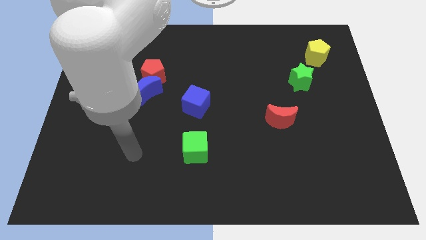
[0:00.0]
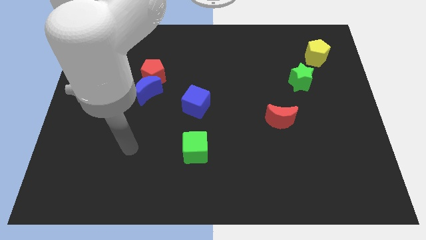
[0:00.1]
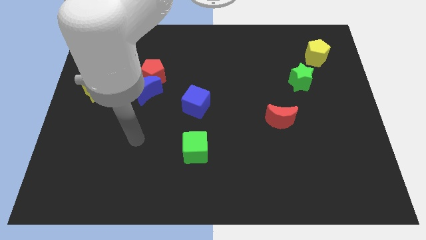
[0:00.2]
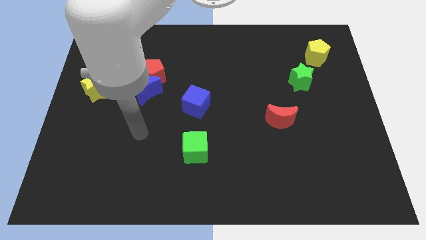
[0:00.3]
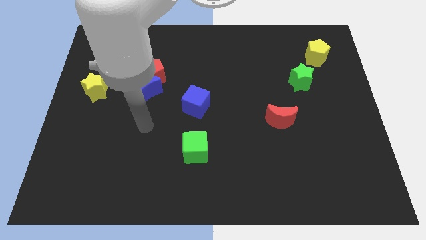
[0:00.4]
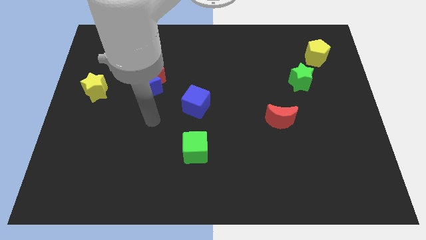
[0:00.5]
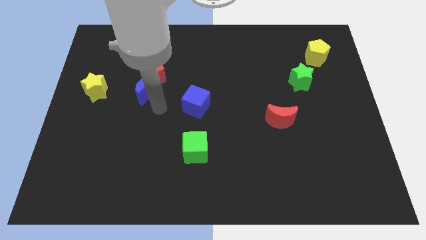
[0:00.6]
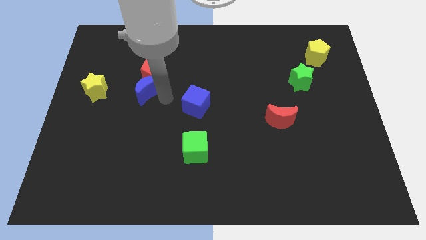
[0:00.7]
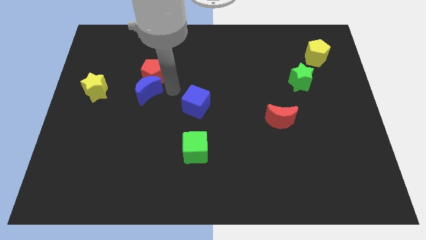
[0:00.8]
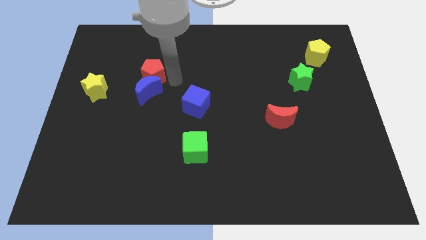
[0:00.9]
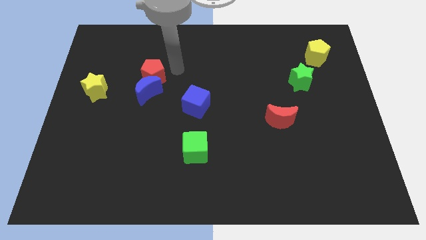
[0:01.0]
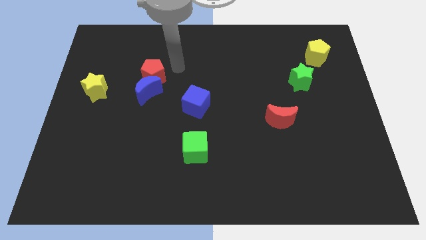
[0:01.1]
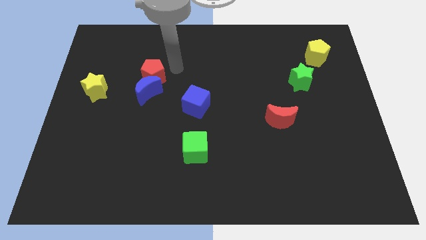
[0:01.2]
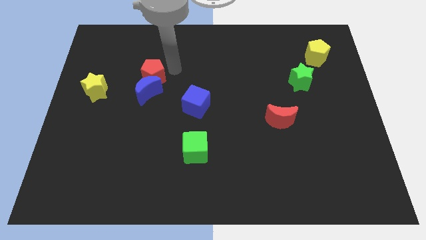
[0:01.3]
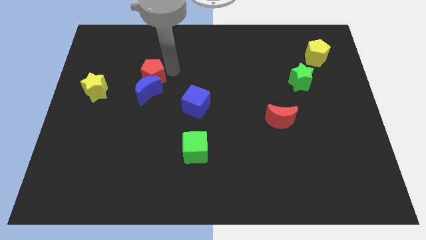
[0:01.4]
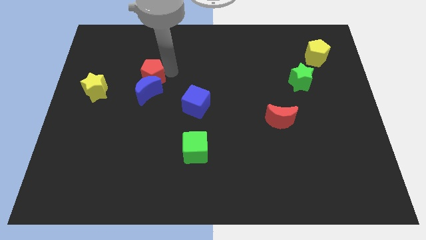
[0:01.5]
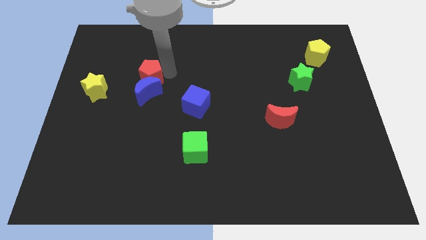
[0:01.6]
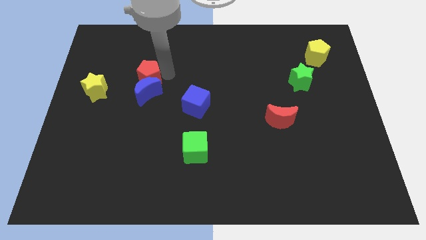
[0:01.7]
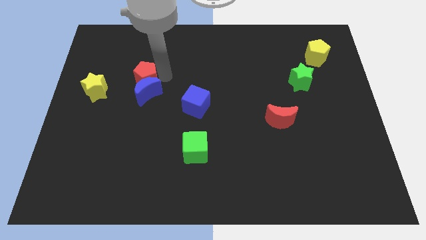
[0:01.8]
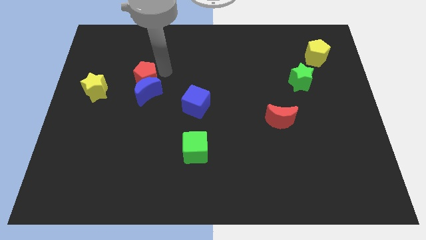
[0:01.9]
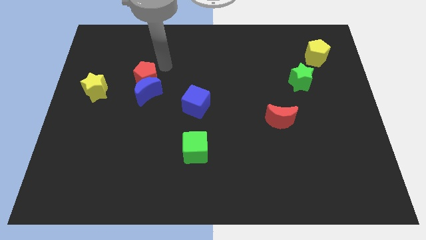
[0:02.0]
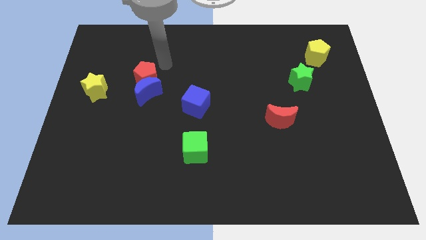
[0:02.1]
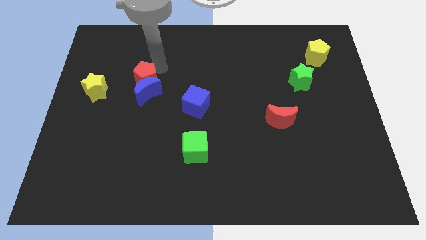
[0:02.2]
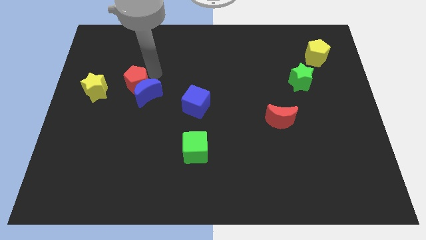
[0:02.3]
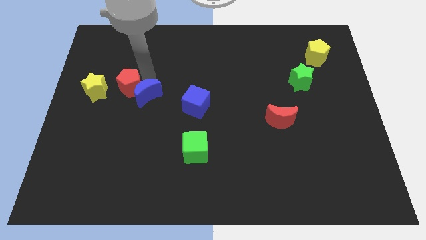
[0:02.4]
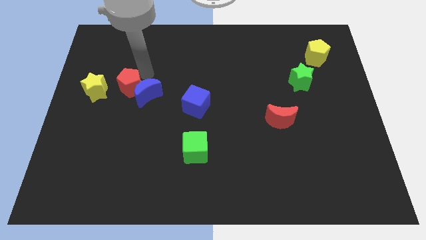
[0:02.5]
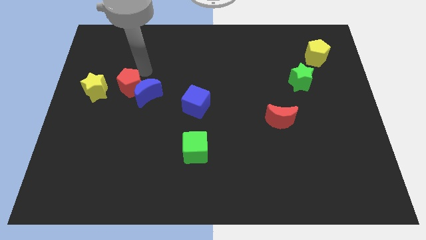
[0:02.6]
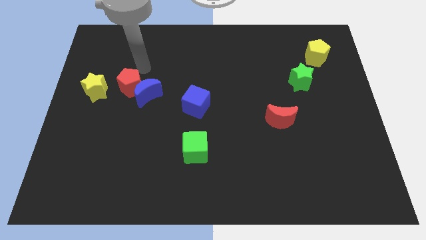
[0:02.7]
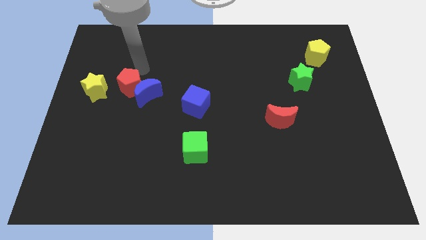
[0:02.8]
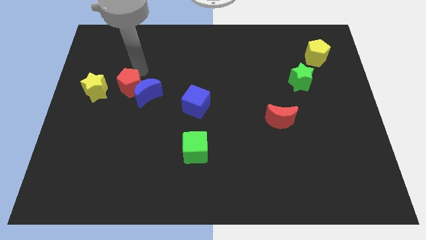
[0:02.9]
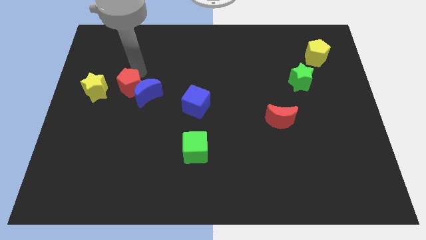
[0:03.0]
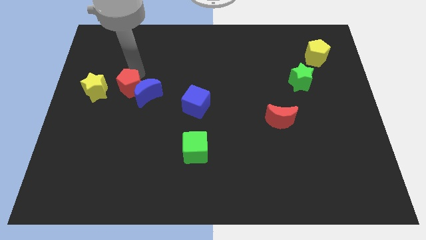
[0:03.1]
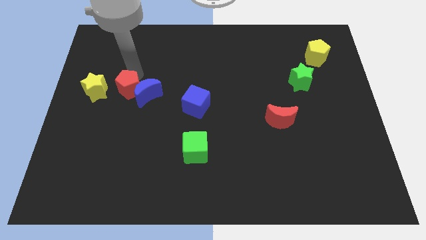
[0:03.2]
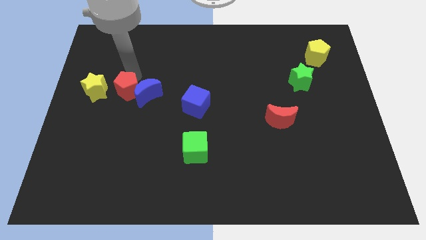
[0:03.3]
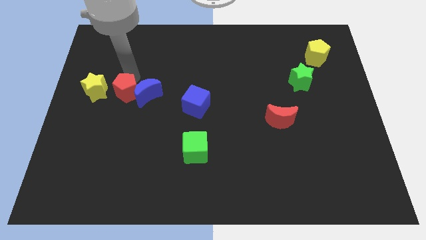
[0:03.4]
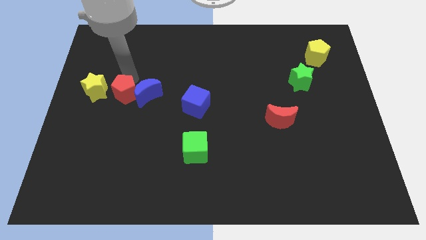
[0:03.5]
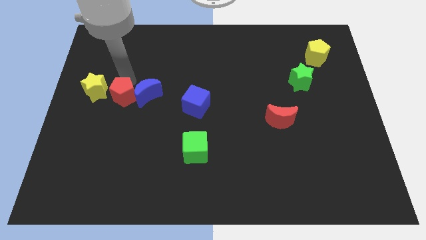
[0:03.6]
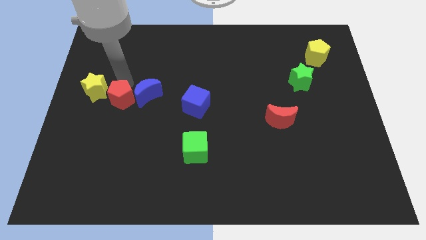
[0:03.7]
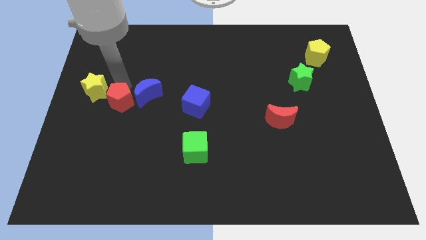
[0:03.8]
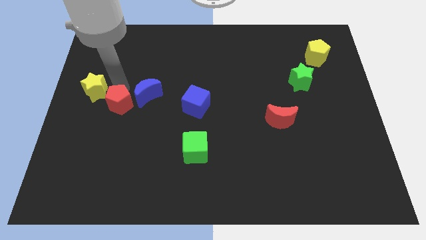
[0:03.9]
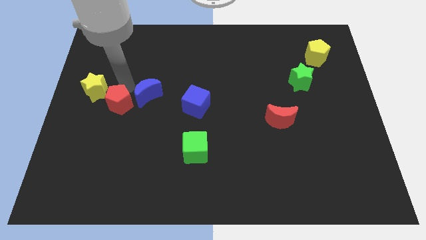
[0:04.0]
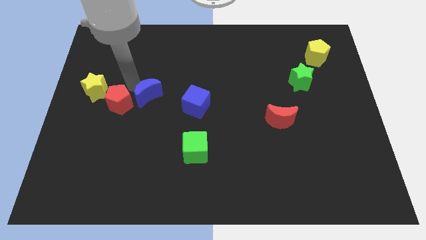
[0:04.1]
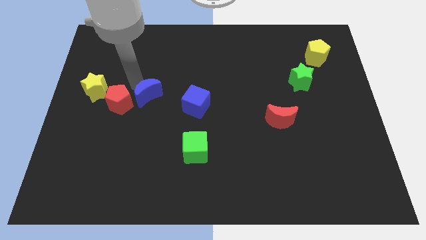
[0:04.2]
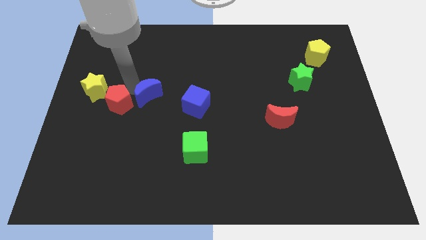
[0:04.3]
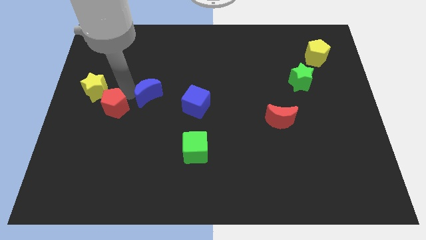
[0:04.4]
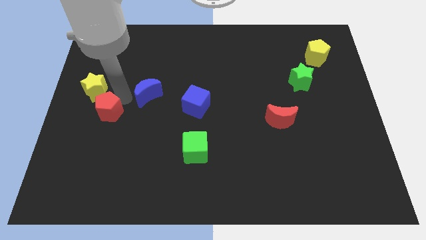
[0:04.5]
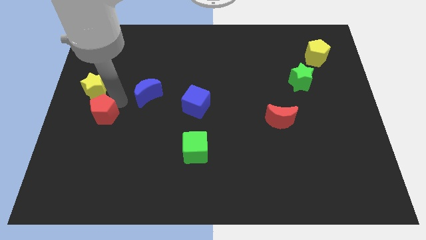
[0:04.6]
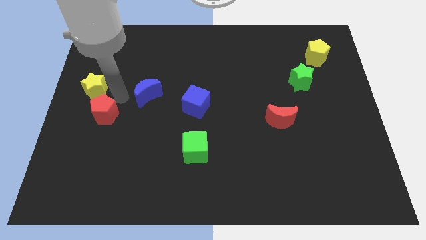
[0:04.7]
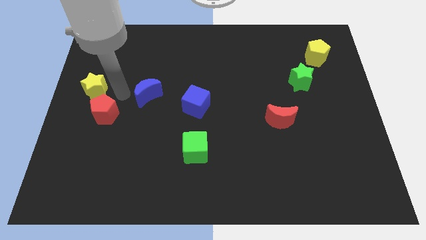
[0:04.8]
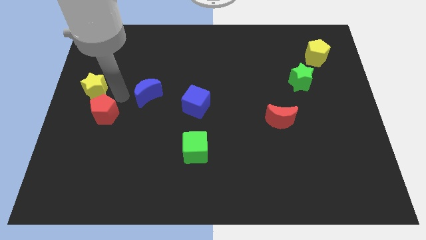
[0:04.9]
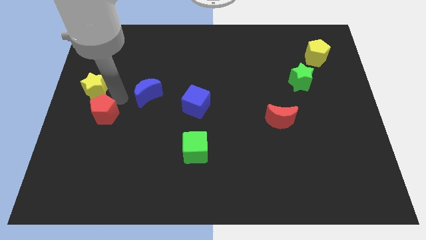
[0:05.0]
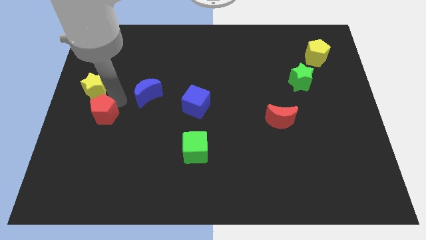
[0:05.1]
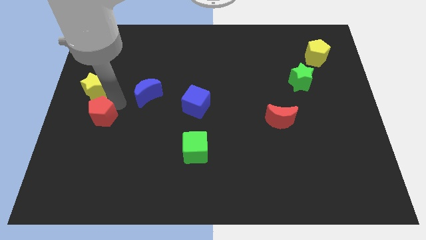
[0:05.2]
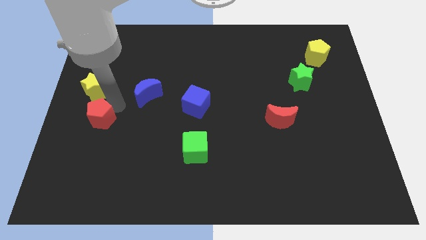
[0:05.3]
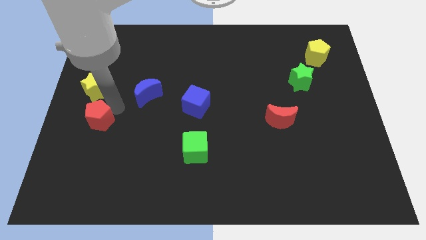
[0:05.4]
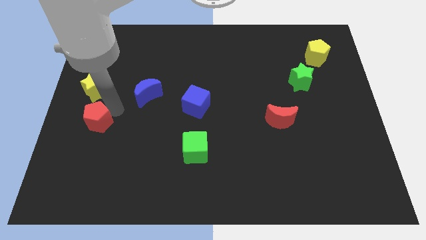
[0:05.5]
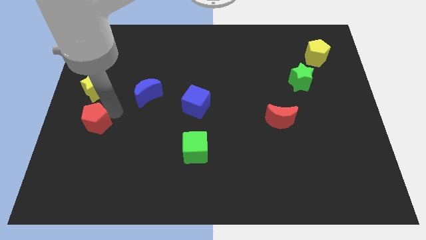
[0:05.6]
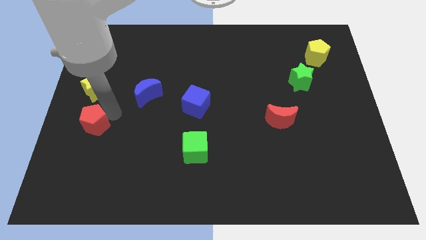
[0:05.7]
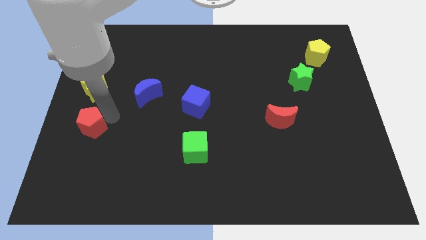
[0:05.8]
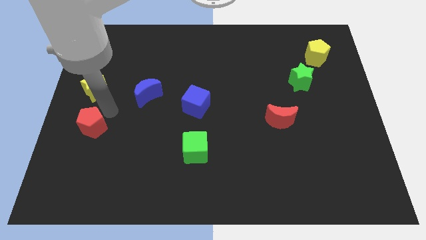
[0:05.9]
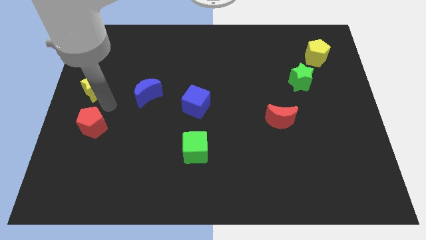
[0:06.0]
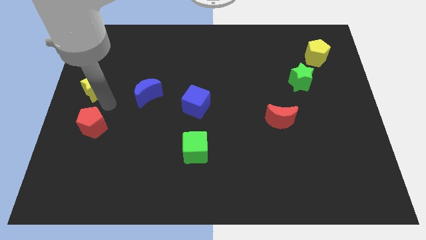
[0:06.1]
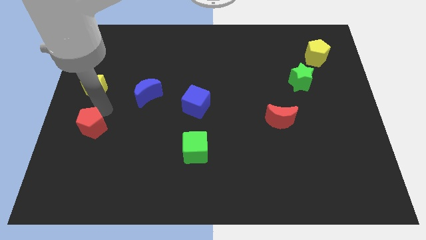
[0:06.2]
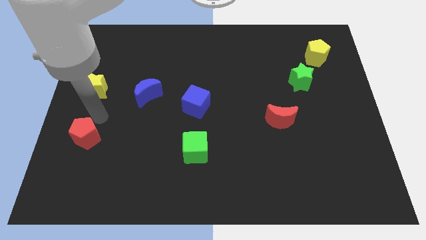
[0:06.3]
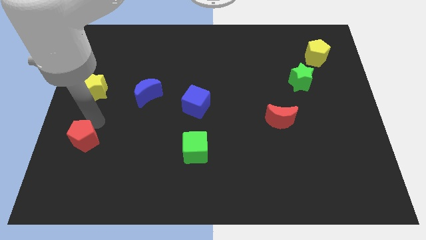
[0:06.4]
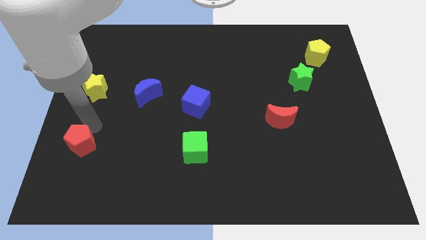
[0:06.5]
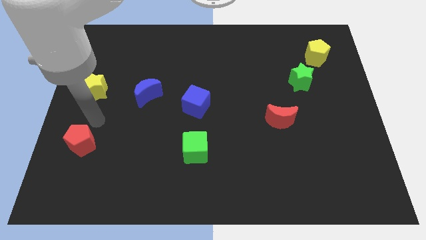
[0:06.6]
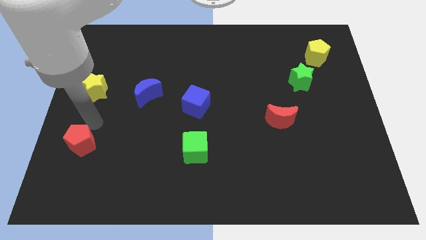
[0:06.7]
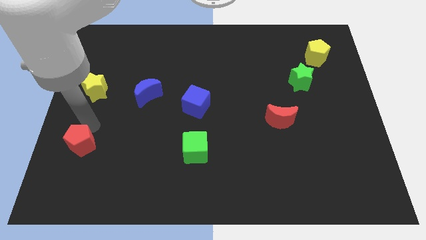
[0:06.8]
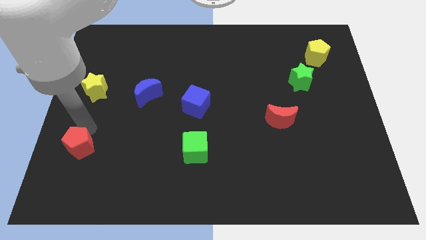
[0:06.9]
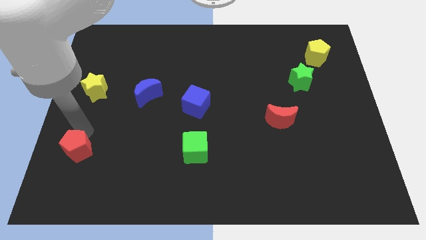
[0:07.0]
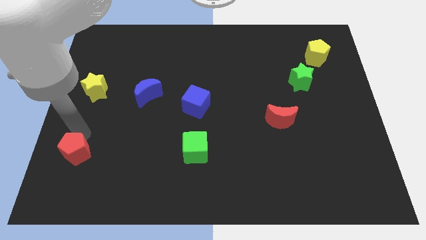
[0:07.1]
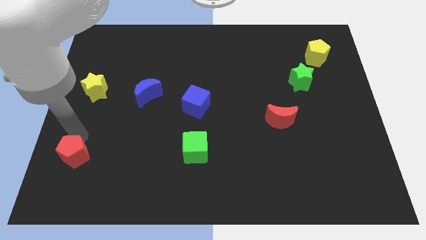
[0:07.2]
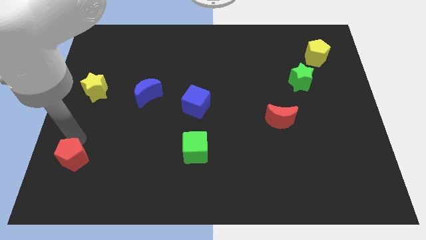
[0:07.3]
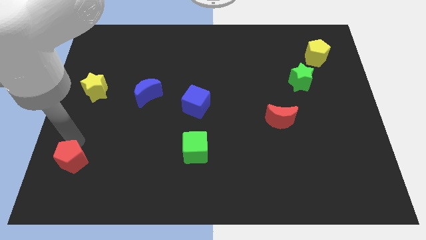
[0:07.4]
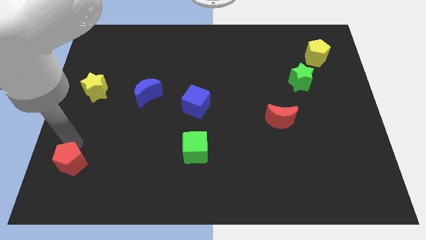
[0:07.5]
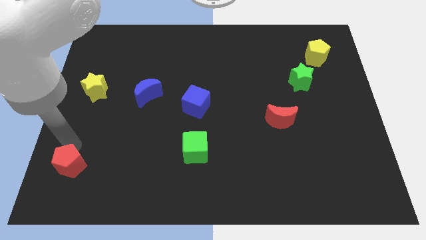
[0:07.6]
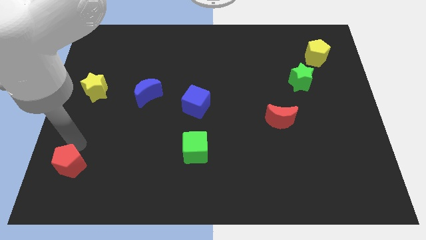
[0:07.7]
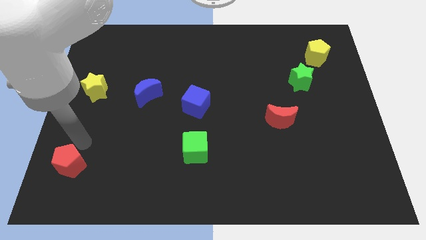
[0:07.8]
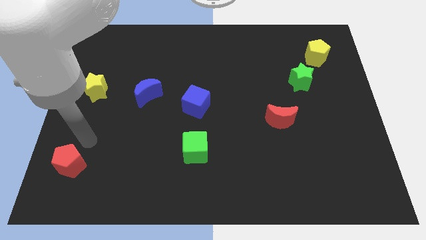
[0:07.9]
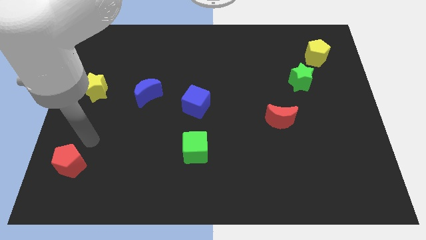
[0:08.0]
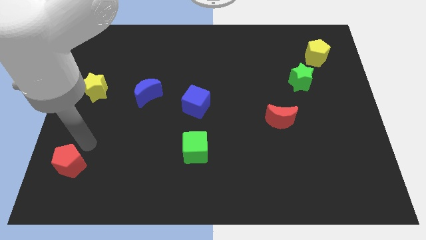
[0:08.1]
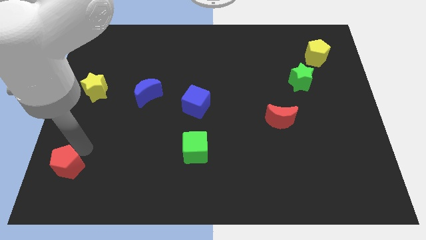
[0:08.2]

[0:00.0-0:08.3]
put the red pentagon to the bottom left of the board
